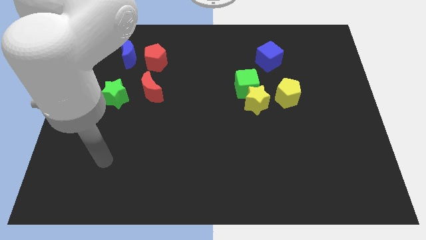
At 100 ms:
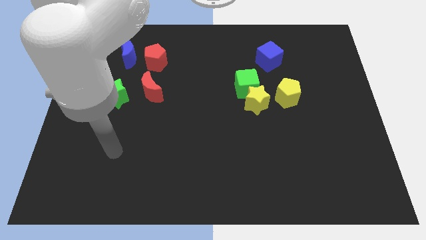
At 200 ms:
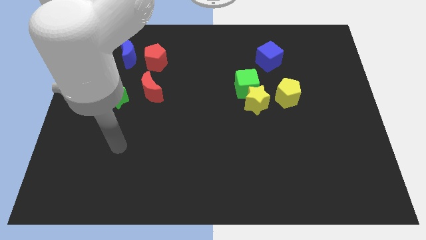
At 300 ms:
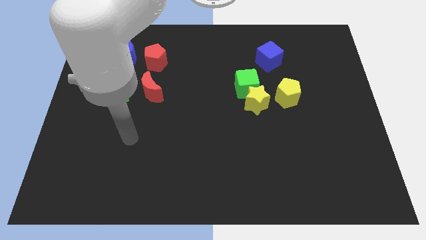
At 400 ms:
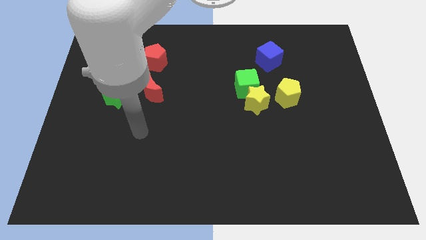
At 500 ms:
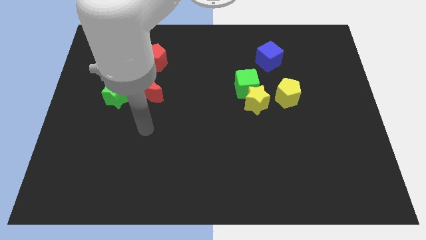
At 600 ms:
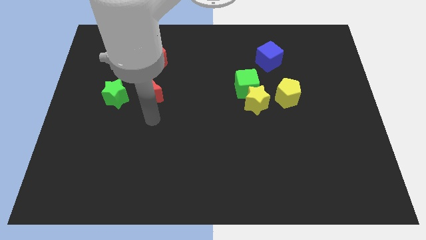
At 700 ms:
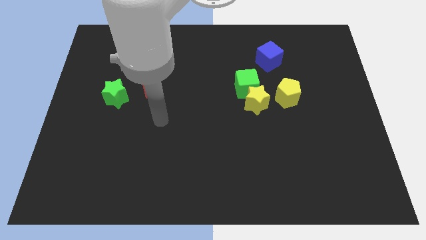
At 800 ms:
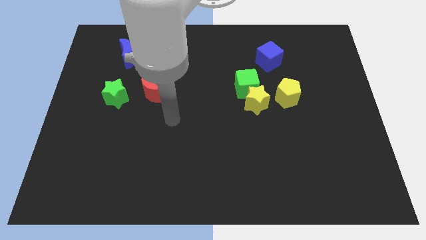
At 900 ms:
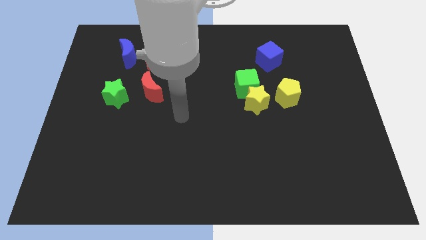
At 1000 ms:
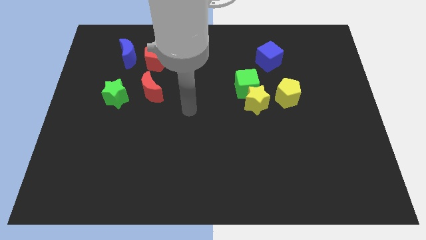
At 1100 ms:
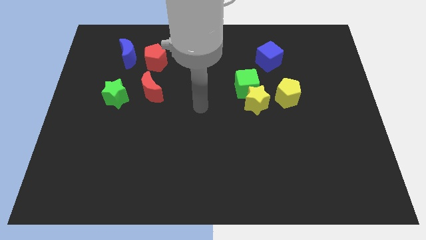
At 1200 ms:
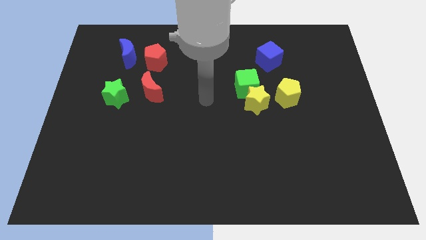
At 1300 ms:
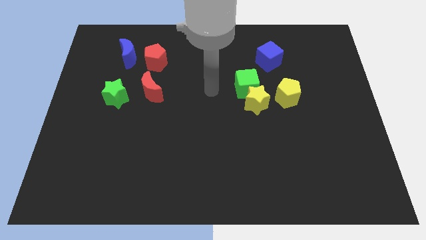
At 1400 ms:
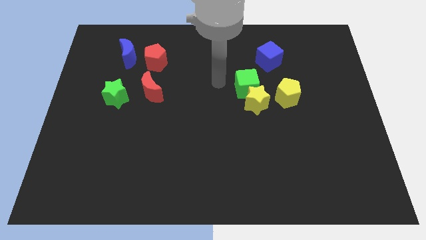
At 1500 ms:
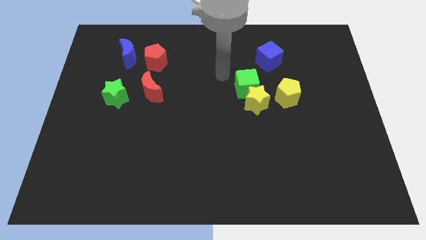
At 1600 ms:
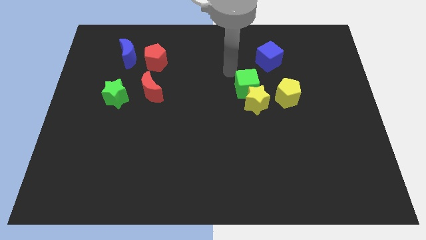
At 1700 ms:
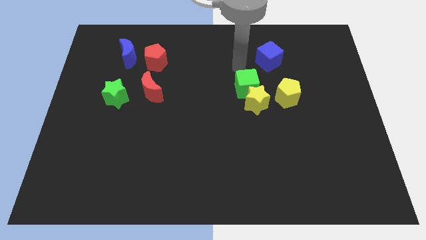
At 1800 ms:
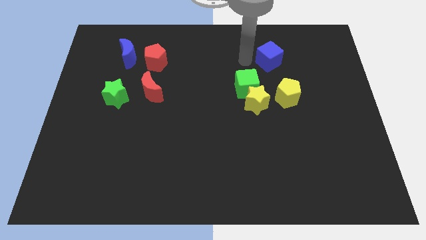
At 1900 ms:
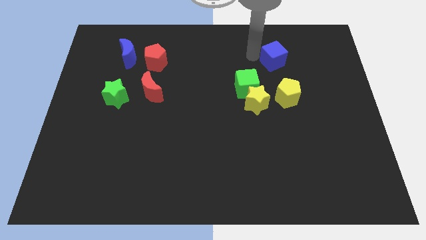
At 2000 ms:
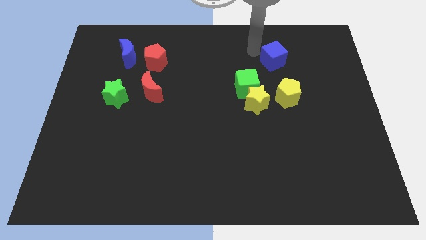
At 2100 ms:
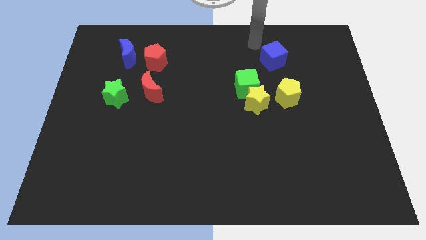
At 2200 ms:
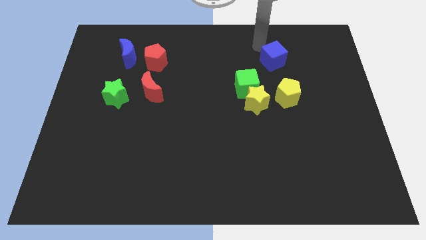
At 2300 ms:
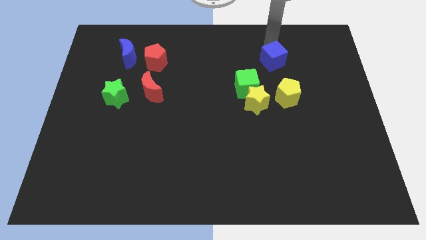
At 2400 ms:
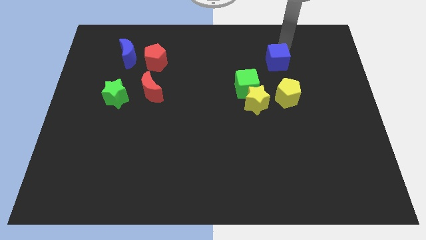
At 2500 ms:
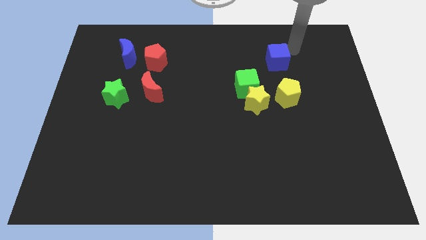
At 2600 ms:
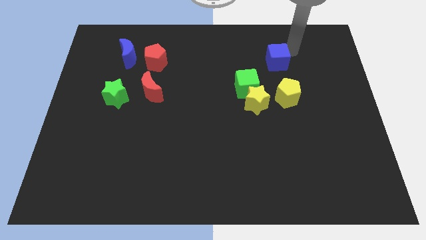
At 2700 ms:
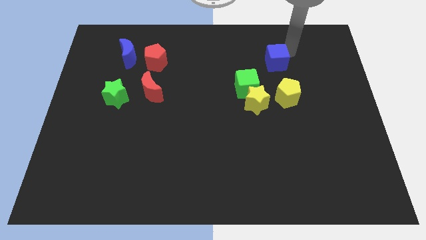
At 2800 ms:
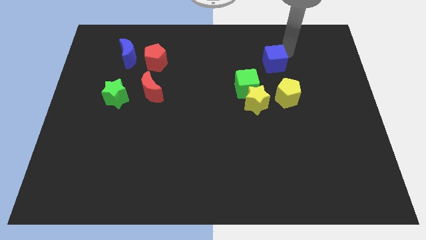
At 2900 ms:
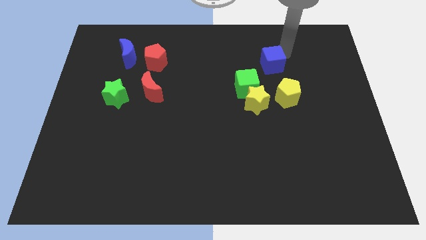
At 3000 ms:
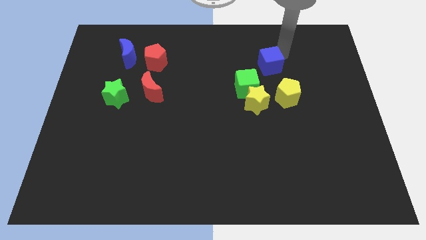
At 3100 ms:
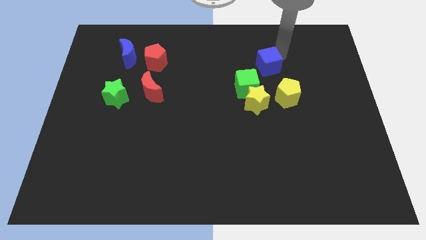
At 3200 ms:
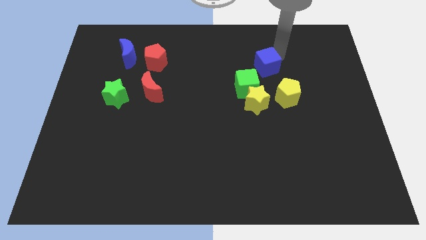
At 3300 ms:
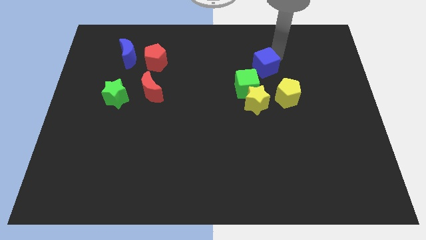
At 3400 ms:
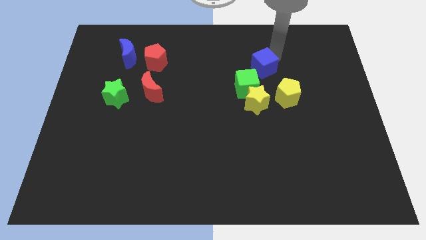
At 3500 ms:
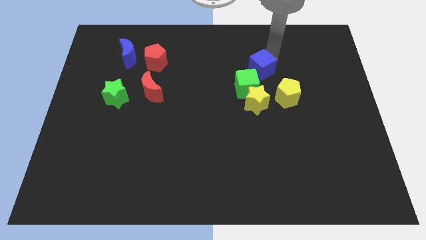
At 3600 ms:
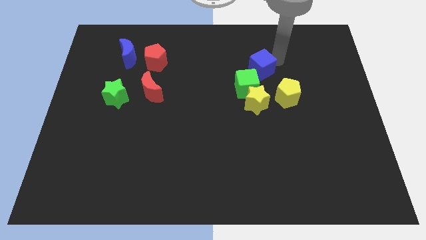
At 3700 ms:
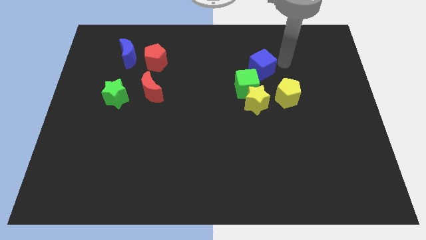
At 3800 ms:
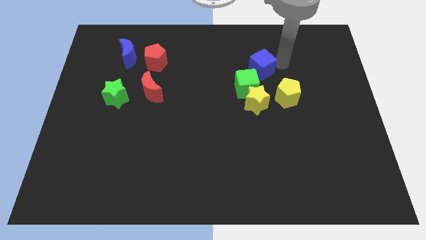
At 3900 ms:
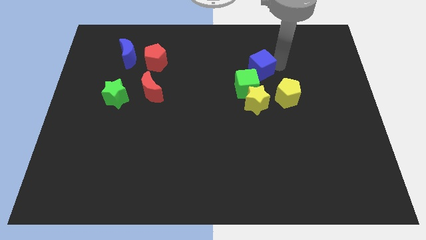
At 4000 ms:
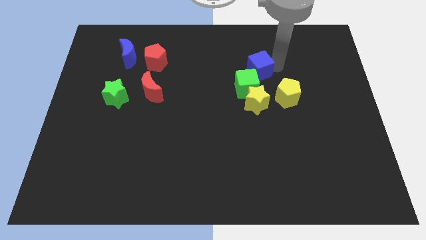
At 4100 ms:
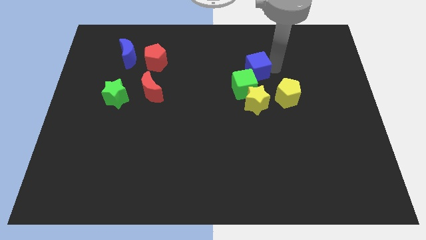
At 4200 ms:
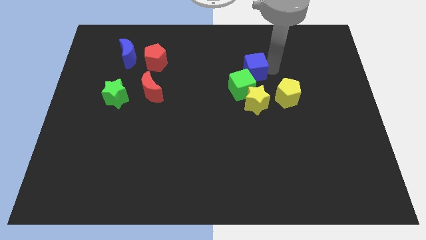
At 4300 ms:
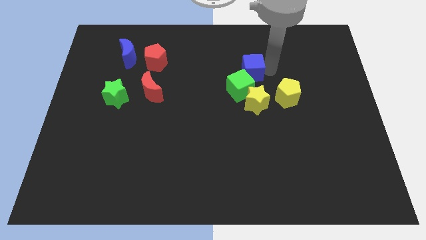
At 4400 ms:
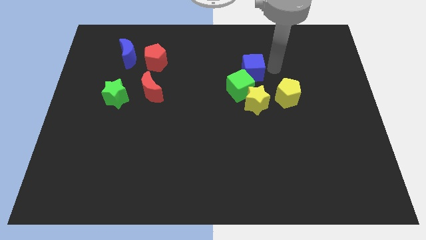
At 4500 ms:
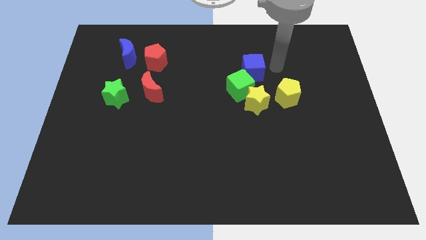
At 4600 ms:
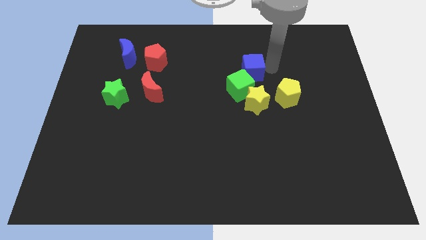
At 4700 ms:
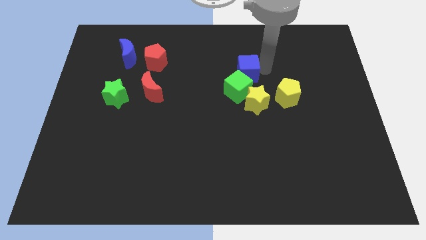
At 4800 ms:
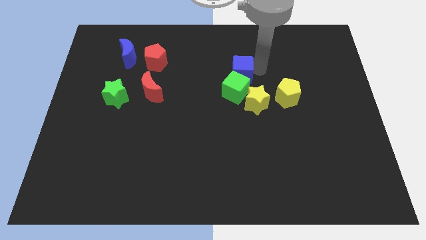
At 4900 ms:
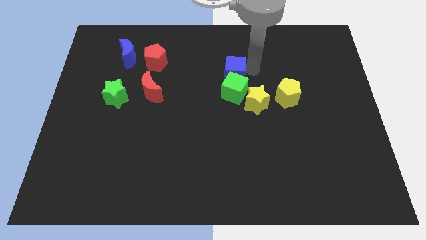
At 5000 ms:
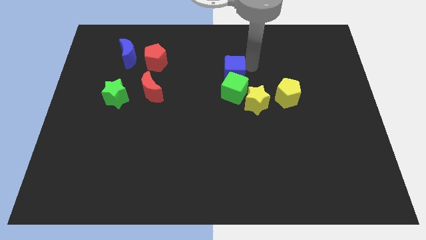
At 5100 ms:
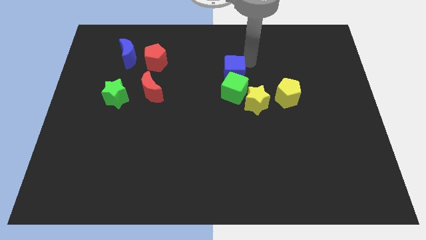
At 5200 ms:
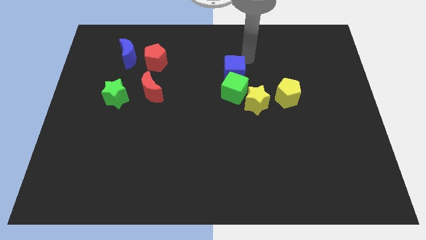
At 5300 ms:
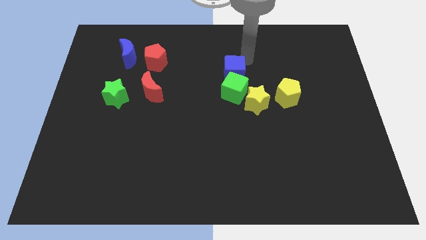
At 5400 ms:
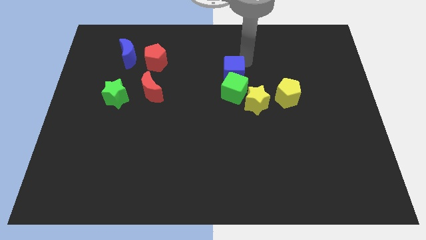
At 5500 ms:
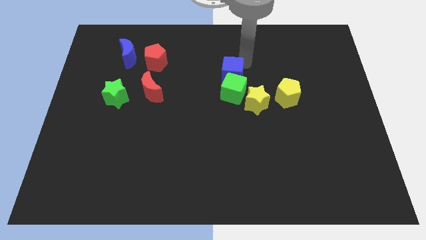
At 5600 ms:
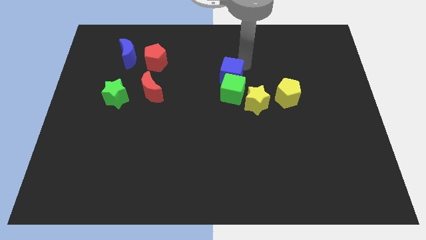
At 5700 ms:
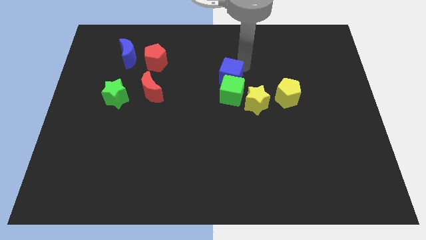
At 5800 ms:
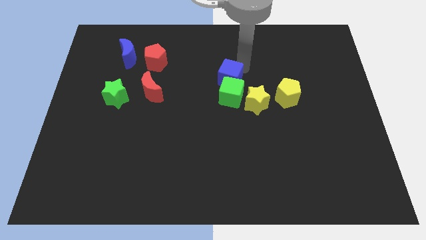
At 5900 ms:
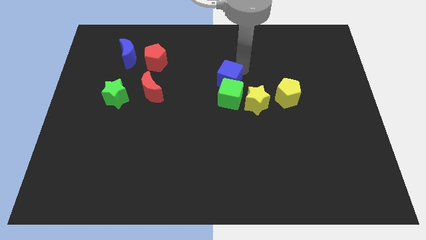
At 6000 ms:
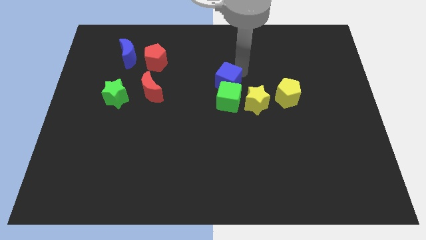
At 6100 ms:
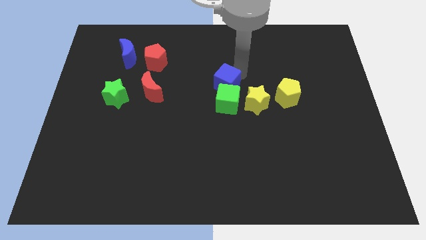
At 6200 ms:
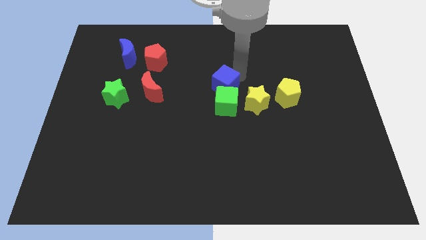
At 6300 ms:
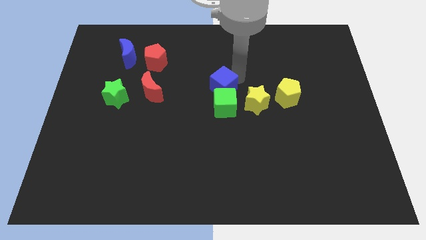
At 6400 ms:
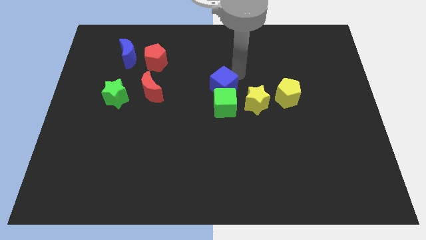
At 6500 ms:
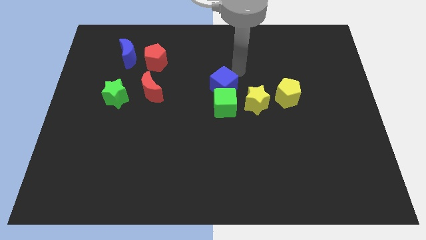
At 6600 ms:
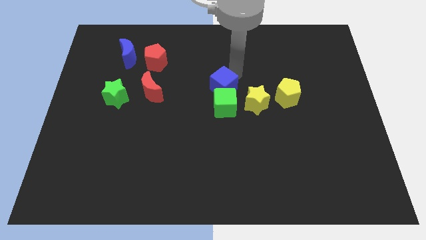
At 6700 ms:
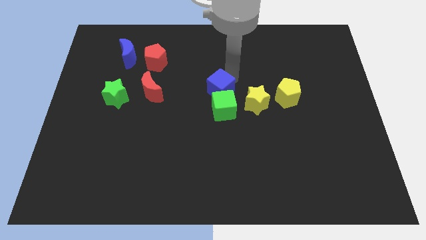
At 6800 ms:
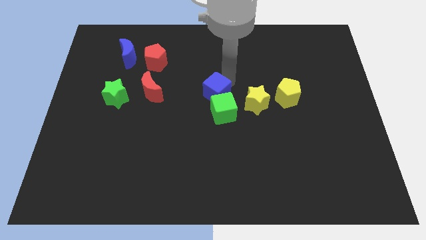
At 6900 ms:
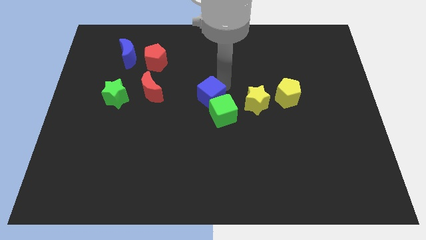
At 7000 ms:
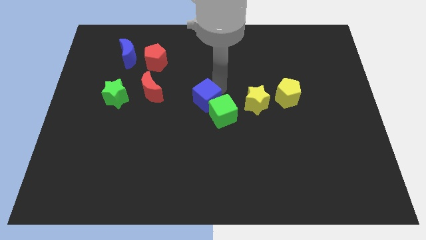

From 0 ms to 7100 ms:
push the blue cube downwards and left

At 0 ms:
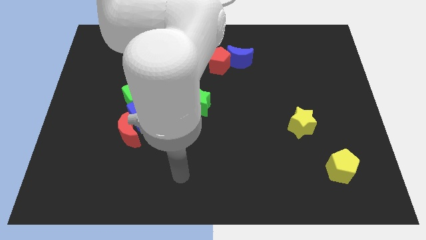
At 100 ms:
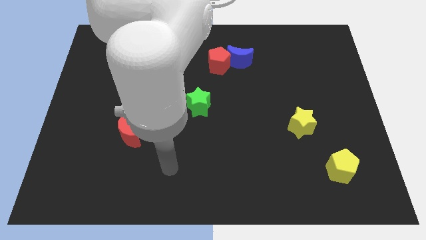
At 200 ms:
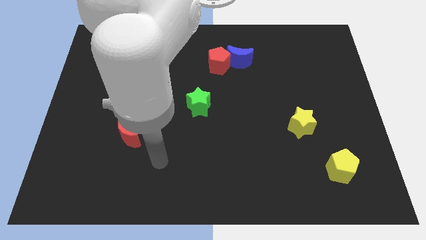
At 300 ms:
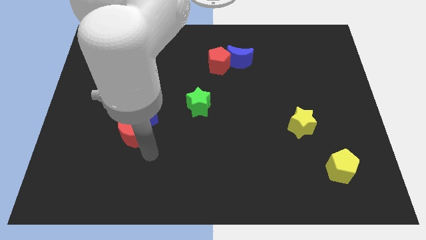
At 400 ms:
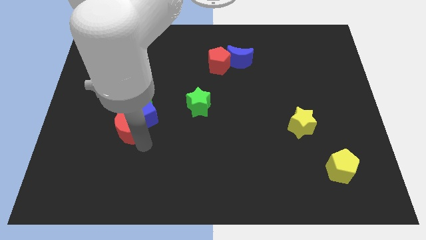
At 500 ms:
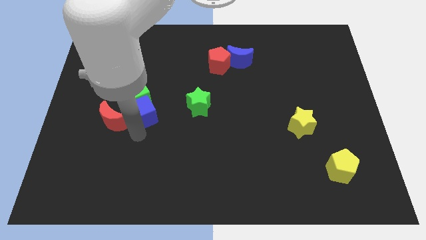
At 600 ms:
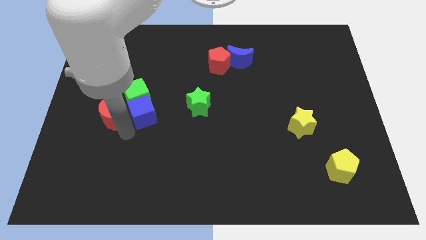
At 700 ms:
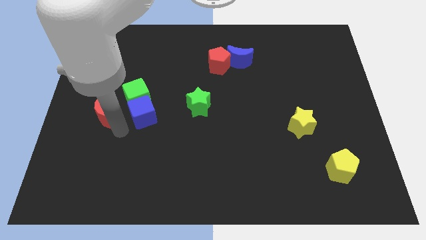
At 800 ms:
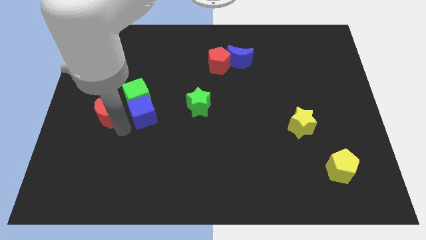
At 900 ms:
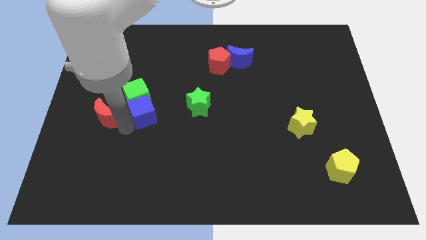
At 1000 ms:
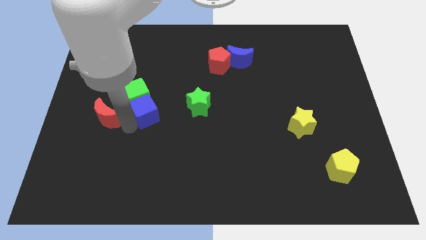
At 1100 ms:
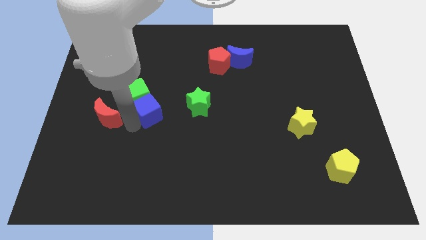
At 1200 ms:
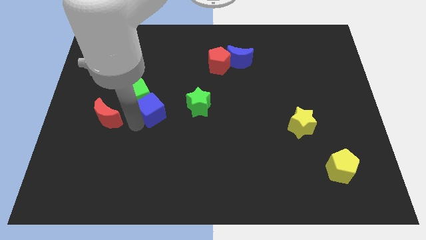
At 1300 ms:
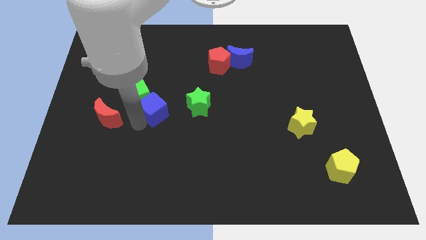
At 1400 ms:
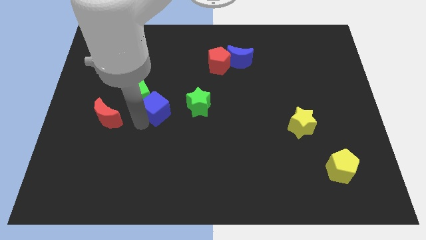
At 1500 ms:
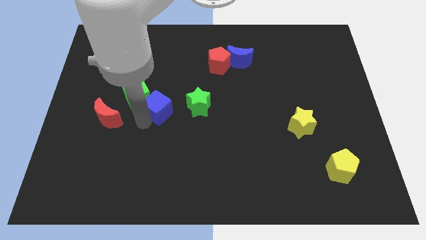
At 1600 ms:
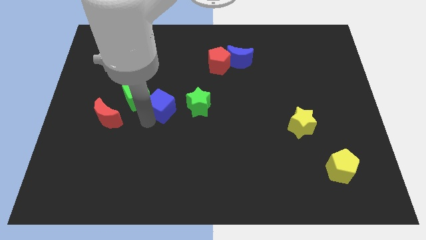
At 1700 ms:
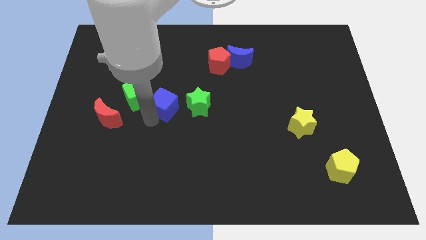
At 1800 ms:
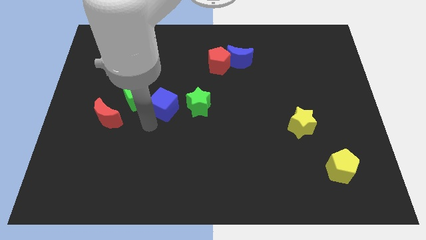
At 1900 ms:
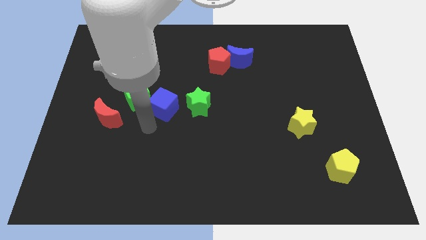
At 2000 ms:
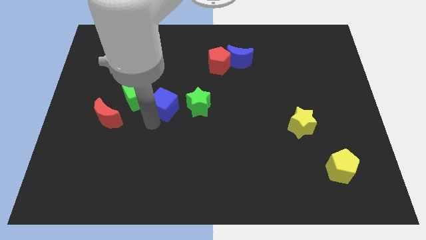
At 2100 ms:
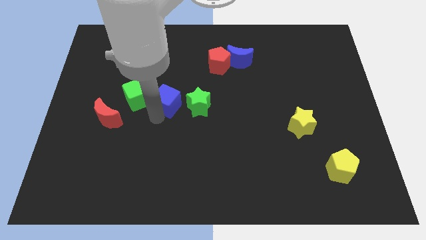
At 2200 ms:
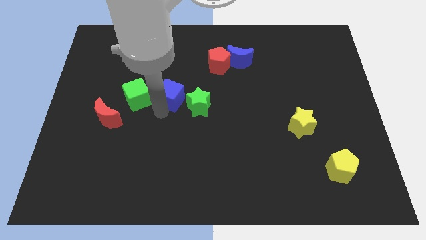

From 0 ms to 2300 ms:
move the blue cube a bit diagonally up and to the right
